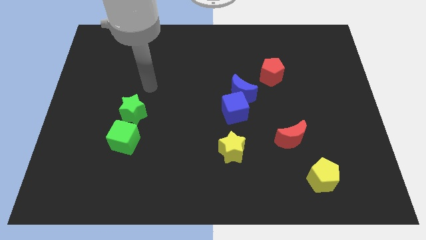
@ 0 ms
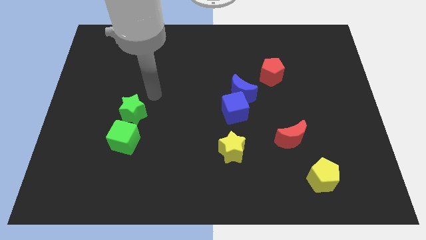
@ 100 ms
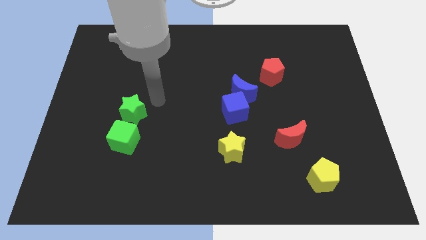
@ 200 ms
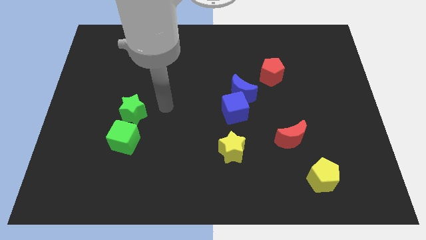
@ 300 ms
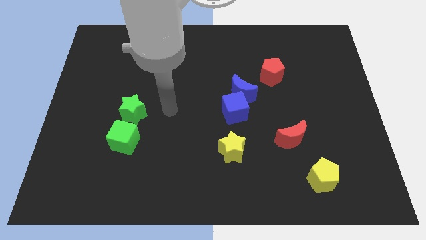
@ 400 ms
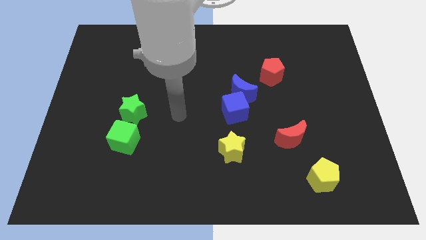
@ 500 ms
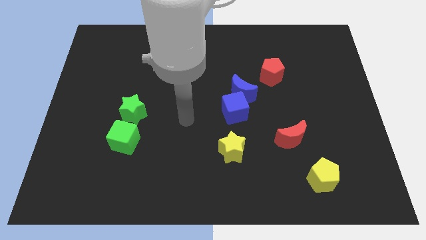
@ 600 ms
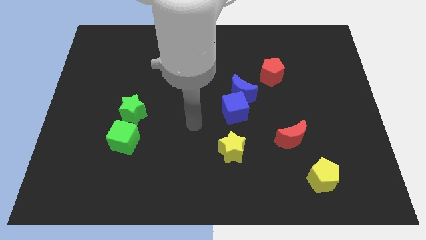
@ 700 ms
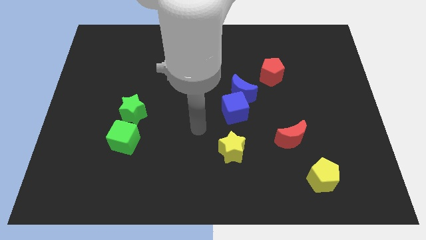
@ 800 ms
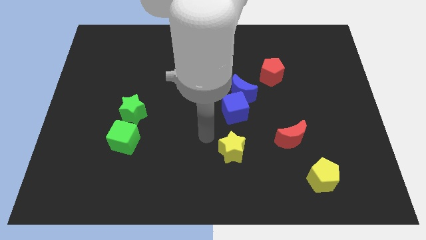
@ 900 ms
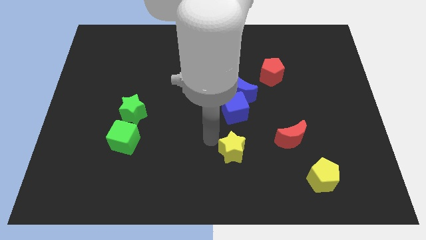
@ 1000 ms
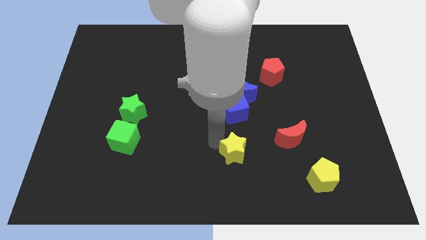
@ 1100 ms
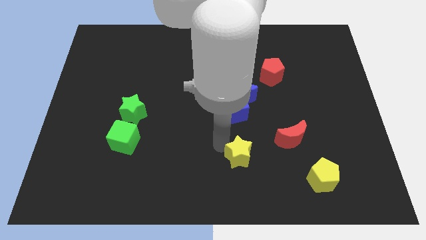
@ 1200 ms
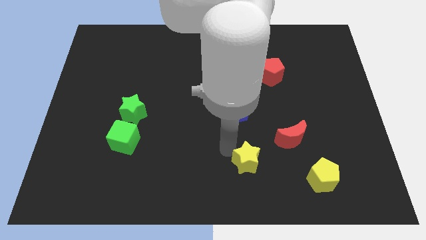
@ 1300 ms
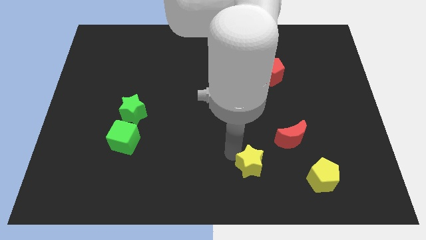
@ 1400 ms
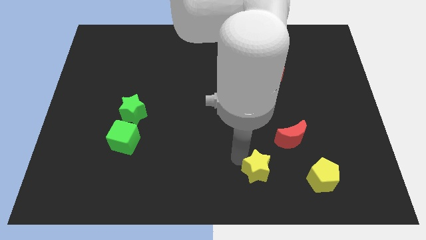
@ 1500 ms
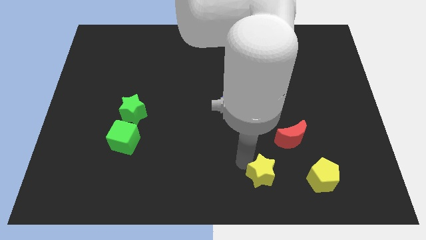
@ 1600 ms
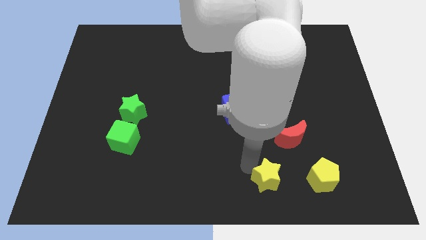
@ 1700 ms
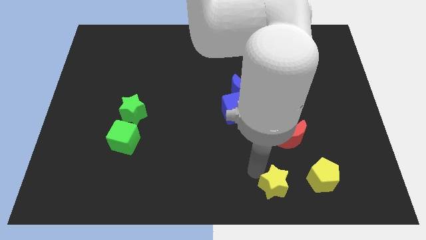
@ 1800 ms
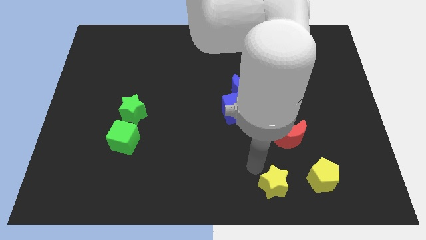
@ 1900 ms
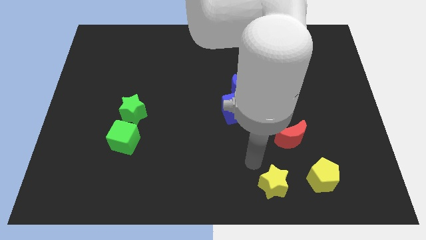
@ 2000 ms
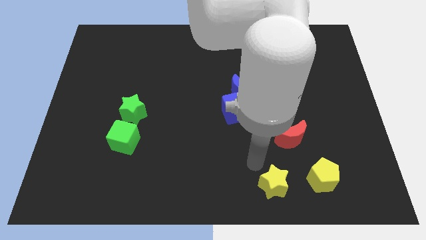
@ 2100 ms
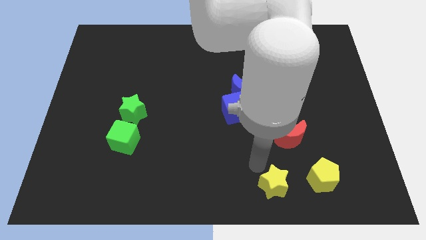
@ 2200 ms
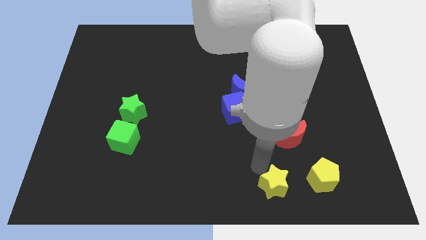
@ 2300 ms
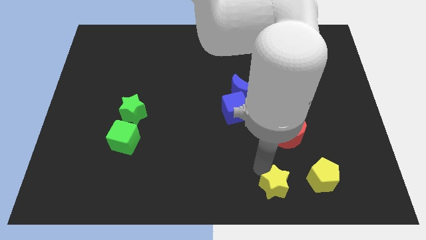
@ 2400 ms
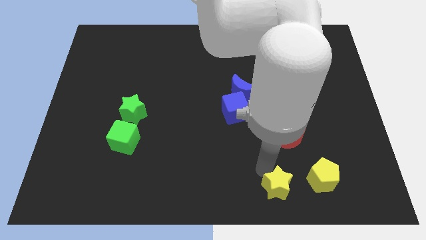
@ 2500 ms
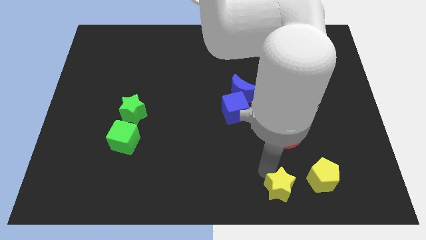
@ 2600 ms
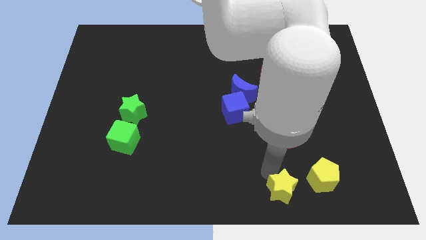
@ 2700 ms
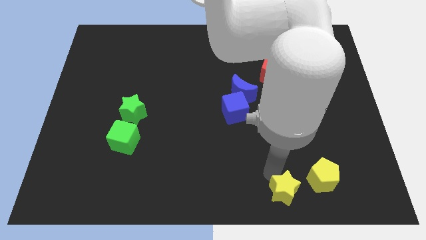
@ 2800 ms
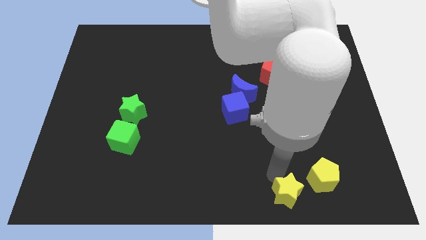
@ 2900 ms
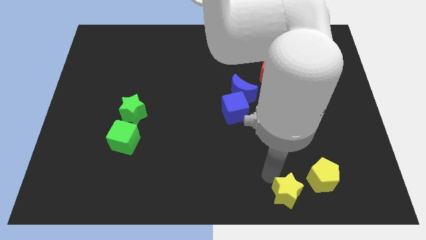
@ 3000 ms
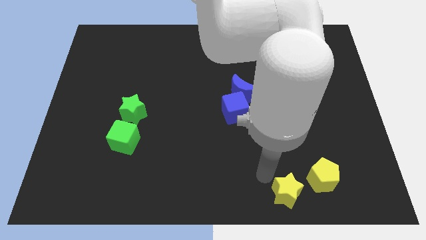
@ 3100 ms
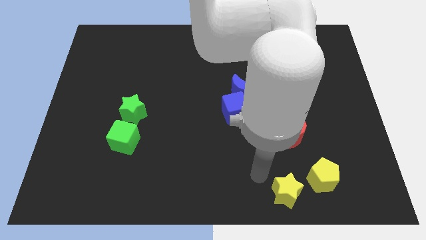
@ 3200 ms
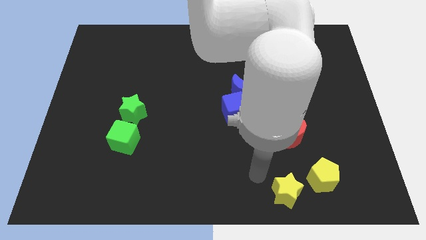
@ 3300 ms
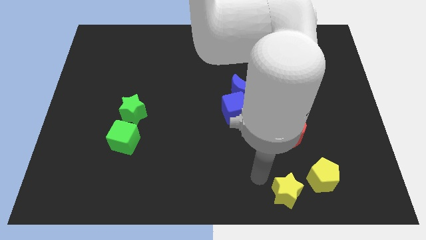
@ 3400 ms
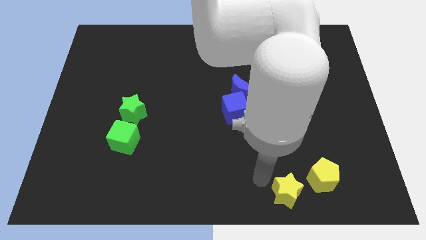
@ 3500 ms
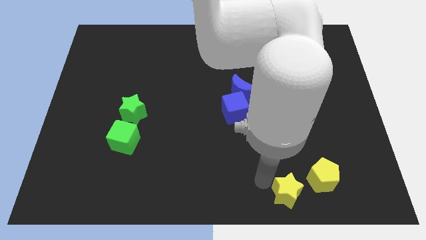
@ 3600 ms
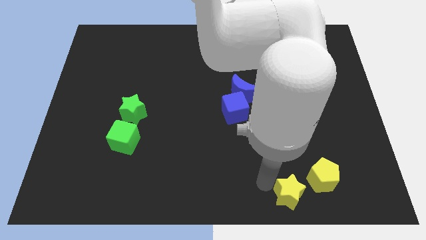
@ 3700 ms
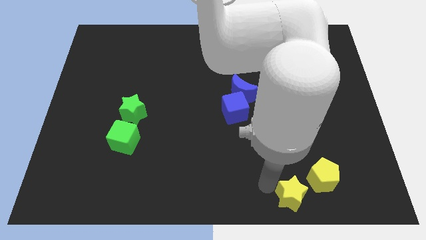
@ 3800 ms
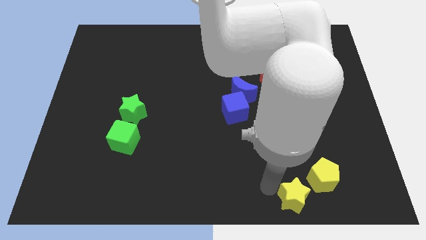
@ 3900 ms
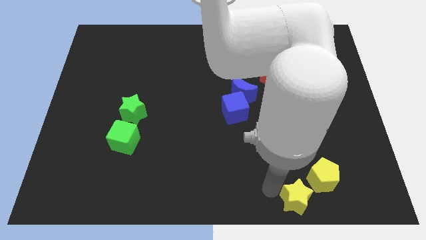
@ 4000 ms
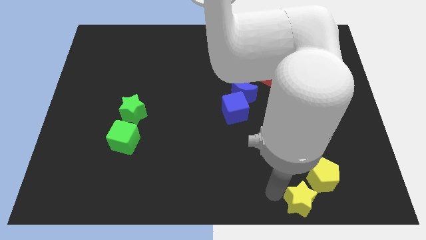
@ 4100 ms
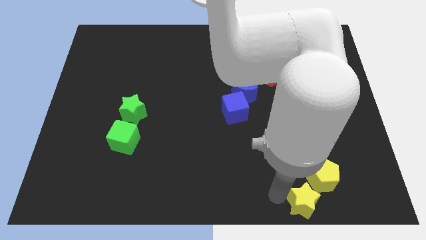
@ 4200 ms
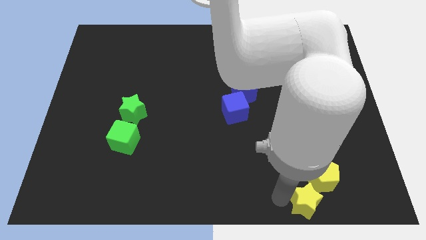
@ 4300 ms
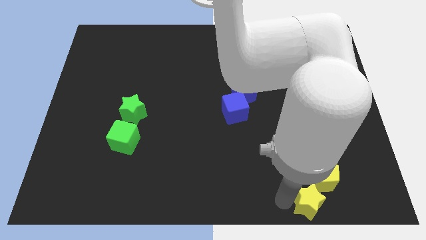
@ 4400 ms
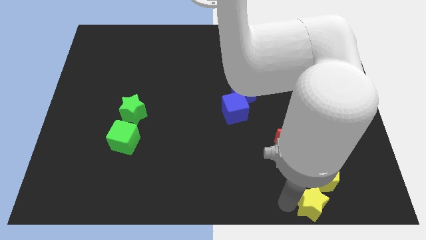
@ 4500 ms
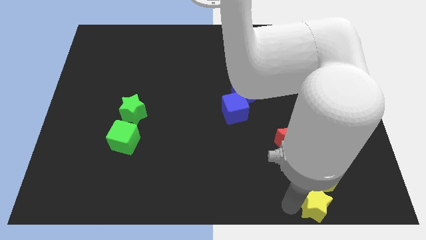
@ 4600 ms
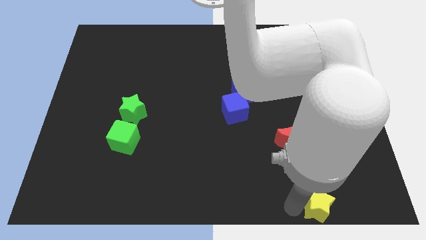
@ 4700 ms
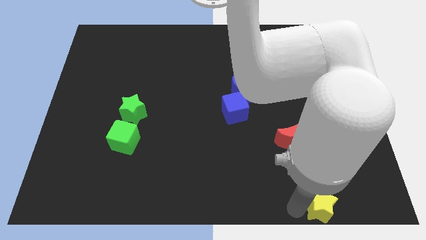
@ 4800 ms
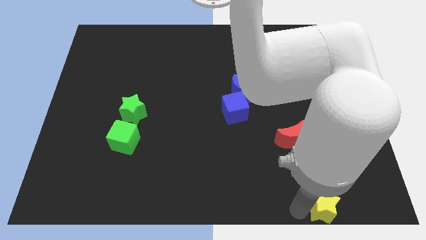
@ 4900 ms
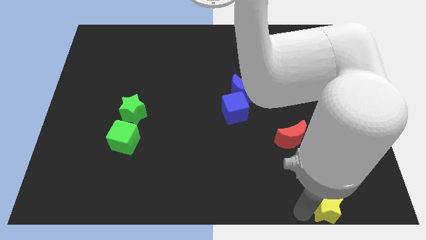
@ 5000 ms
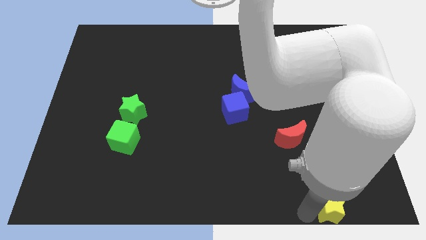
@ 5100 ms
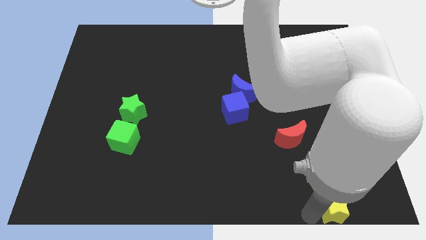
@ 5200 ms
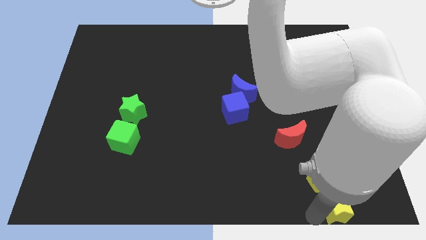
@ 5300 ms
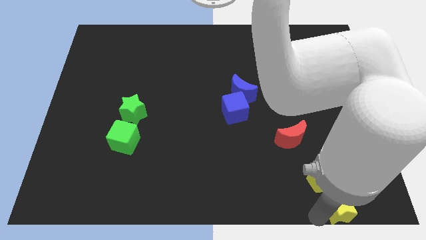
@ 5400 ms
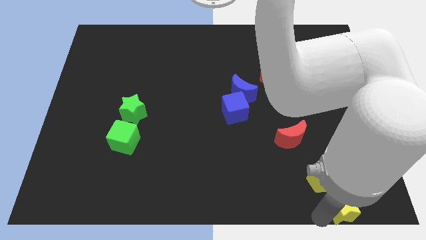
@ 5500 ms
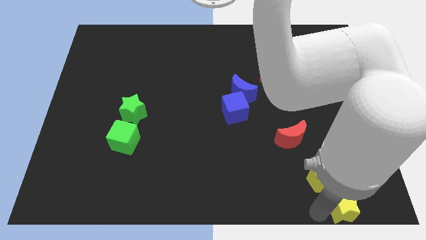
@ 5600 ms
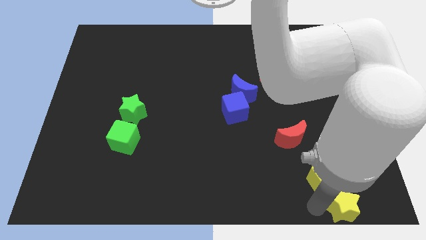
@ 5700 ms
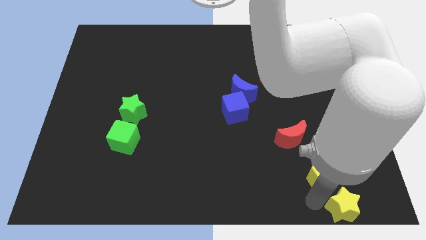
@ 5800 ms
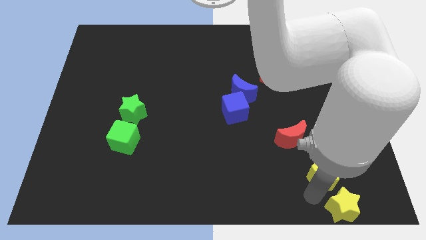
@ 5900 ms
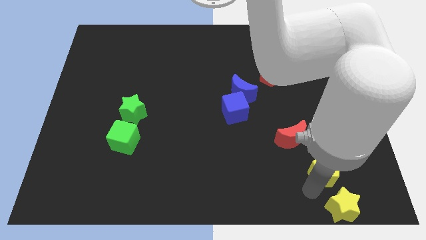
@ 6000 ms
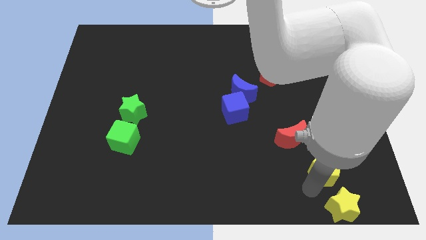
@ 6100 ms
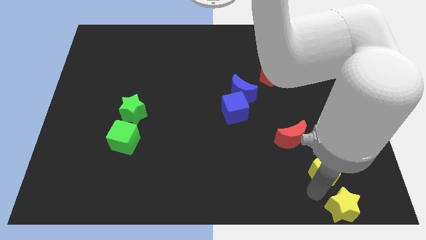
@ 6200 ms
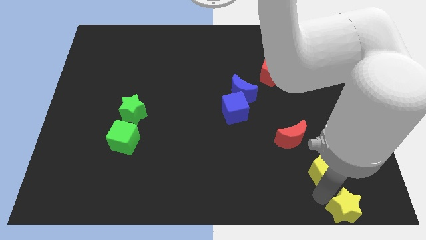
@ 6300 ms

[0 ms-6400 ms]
push the yellow star to the lower right corner
